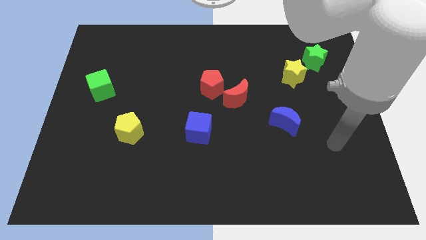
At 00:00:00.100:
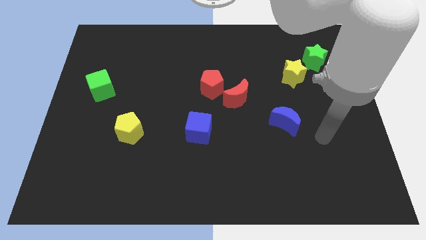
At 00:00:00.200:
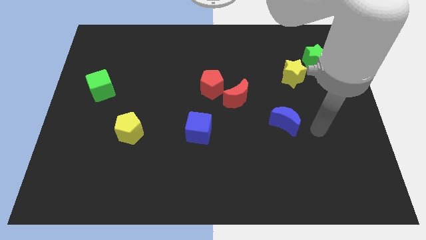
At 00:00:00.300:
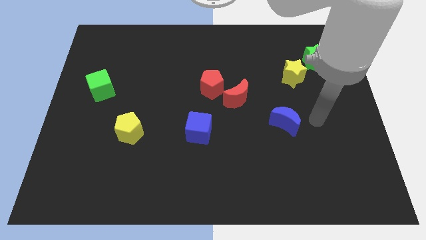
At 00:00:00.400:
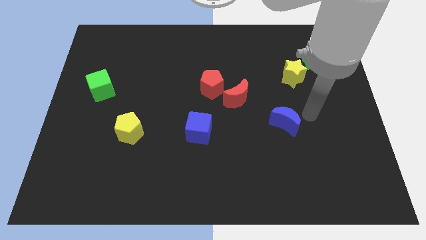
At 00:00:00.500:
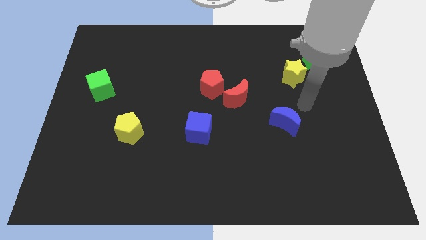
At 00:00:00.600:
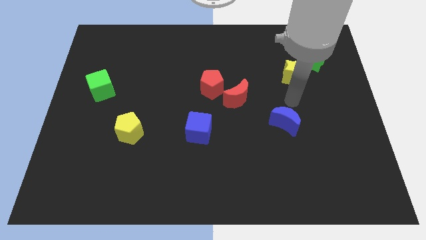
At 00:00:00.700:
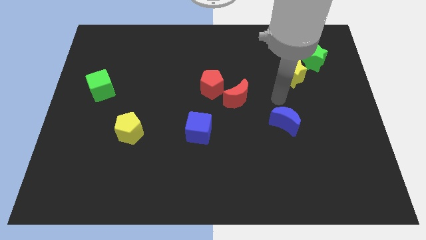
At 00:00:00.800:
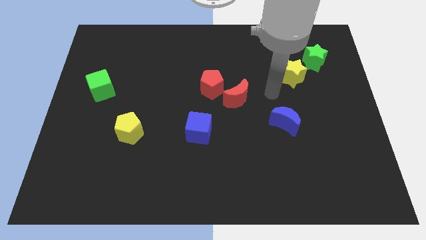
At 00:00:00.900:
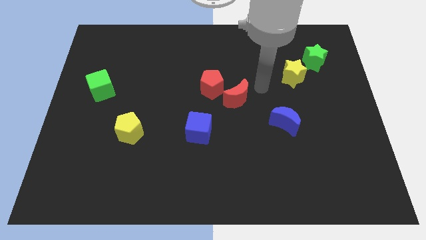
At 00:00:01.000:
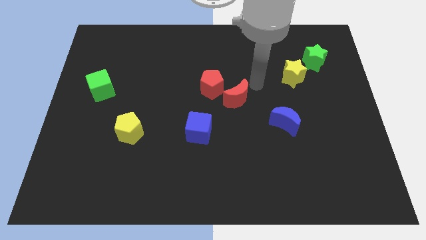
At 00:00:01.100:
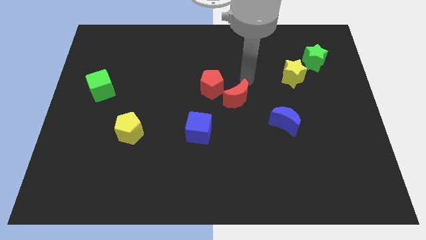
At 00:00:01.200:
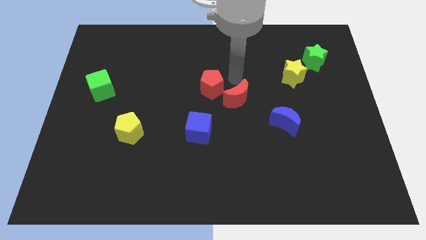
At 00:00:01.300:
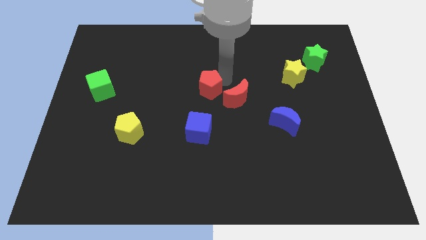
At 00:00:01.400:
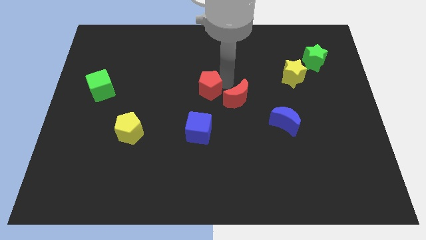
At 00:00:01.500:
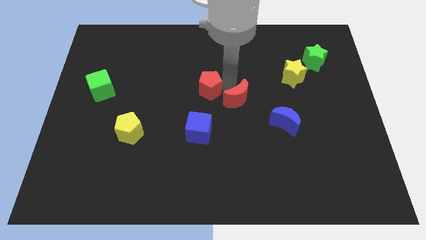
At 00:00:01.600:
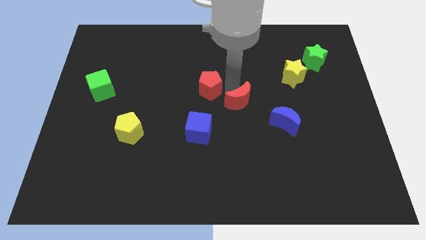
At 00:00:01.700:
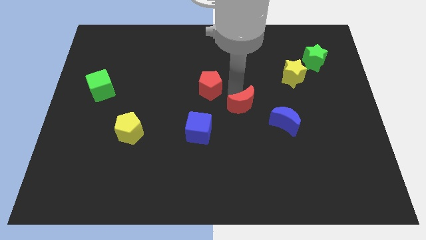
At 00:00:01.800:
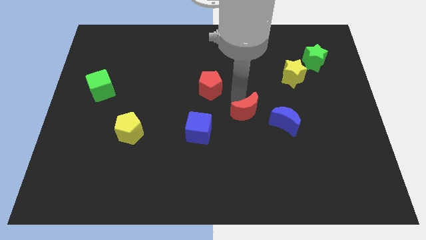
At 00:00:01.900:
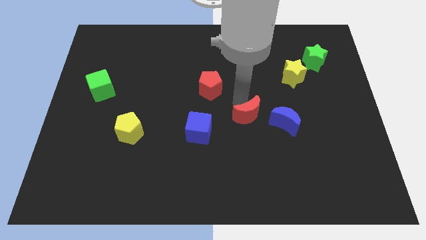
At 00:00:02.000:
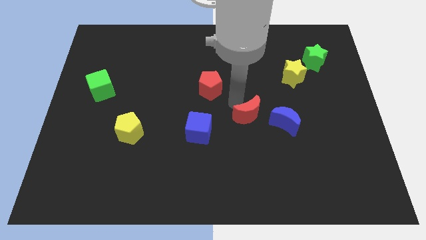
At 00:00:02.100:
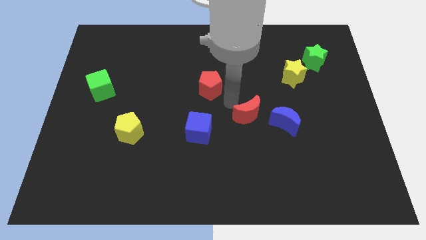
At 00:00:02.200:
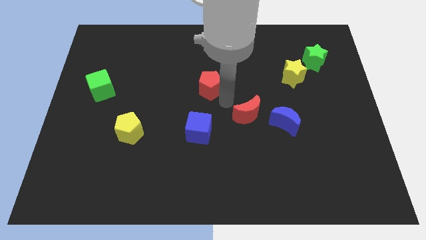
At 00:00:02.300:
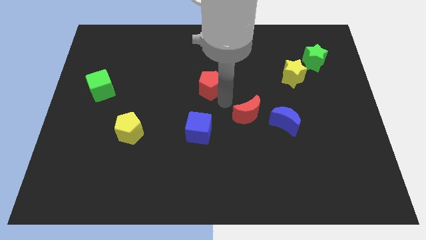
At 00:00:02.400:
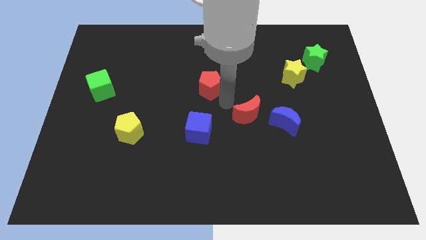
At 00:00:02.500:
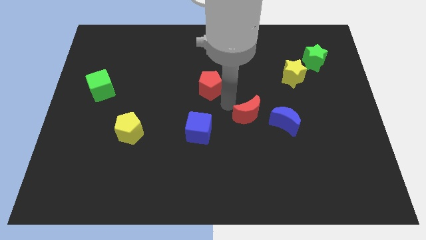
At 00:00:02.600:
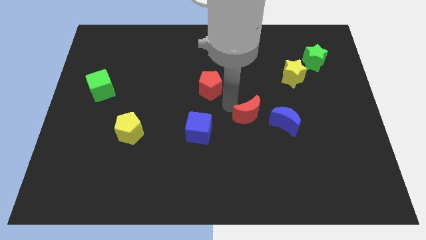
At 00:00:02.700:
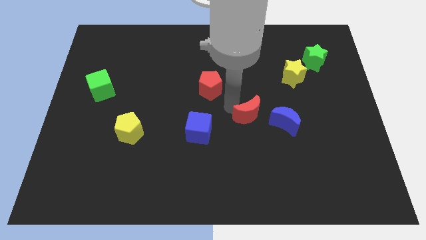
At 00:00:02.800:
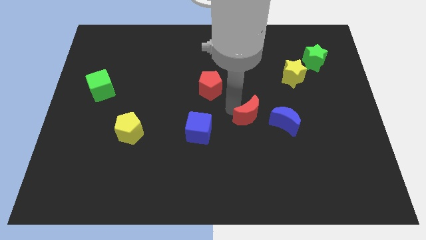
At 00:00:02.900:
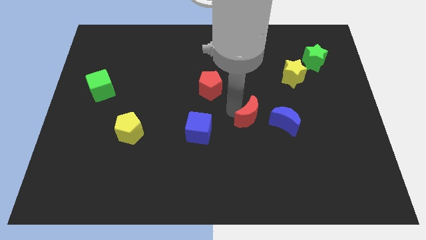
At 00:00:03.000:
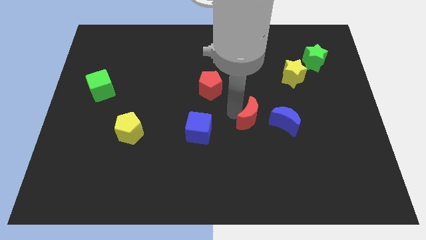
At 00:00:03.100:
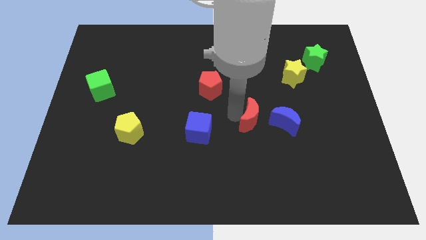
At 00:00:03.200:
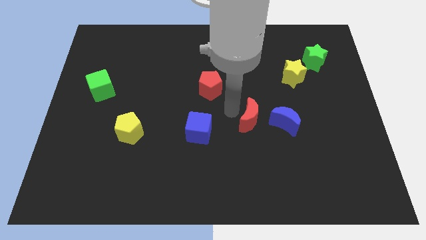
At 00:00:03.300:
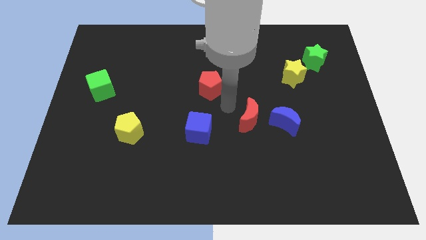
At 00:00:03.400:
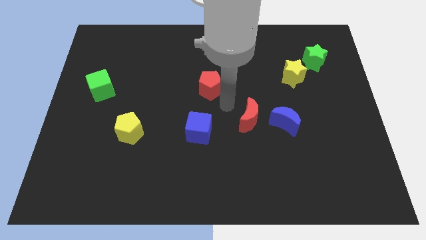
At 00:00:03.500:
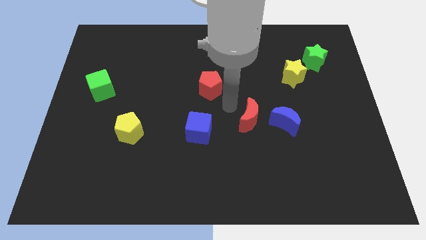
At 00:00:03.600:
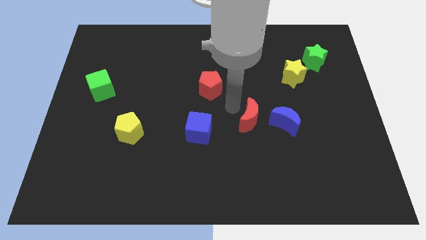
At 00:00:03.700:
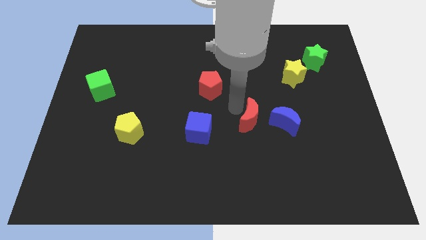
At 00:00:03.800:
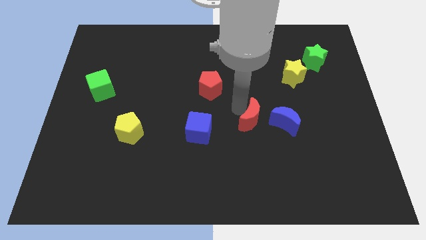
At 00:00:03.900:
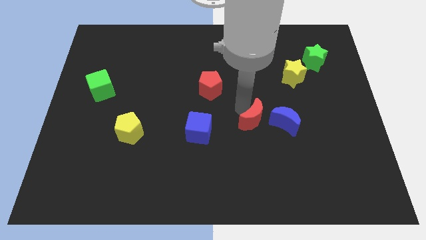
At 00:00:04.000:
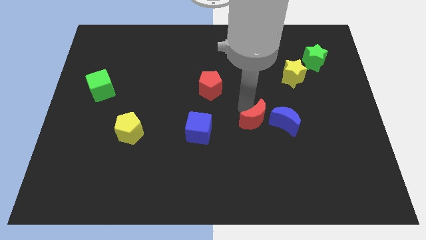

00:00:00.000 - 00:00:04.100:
slide the red moon a little downwards and to the right

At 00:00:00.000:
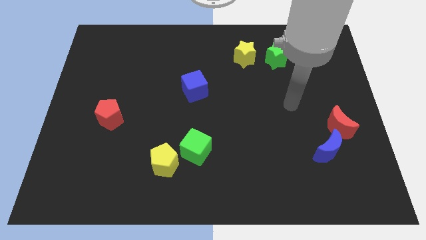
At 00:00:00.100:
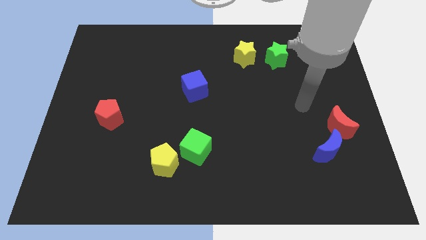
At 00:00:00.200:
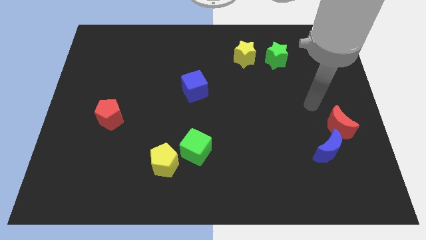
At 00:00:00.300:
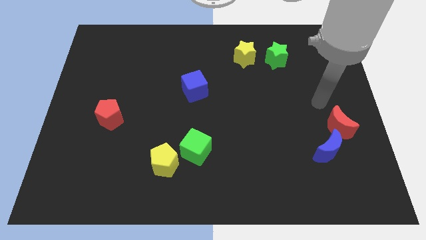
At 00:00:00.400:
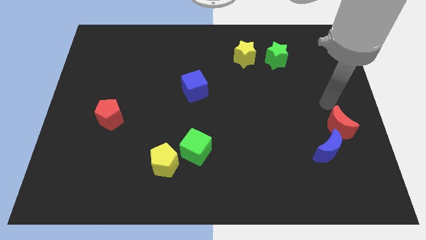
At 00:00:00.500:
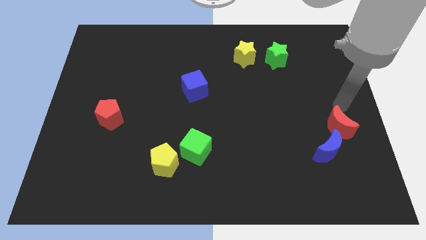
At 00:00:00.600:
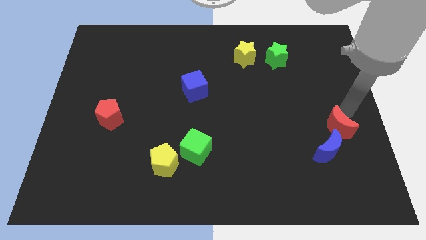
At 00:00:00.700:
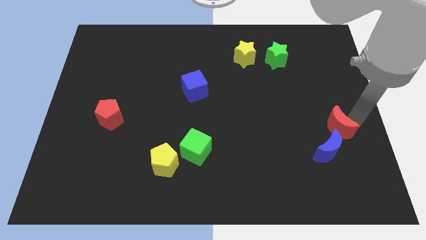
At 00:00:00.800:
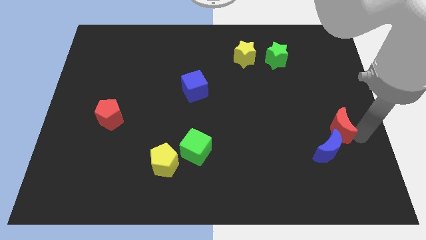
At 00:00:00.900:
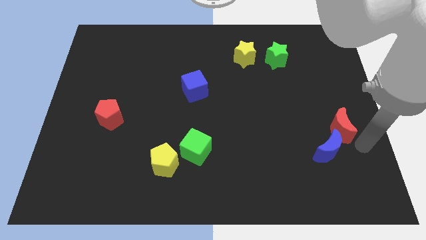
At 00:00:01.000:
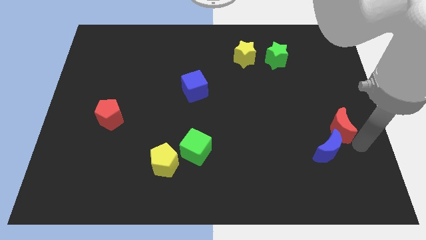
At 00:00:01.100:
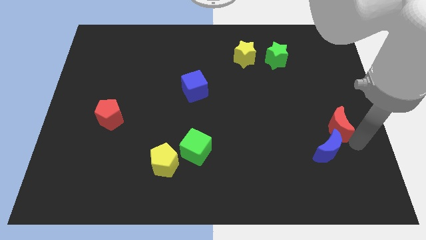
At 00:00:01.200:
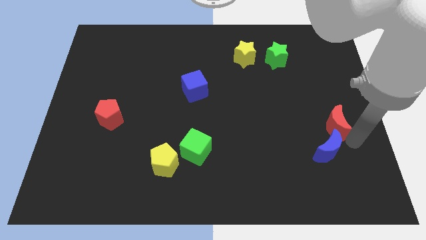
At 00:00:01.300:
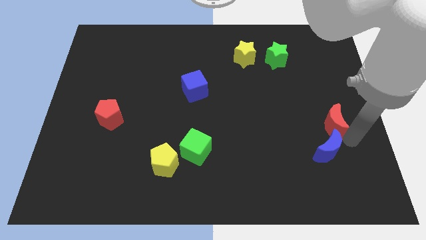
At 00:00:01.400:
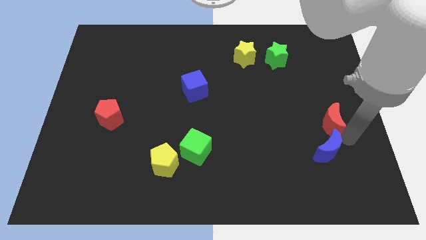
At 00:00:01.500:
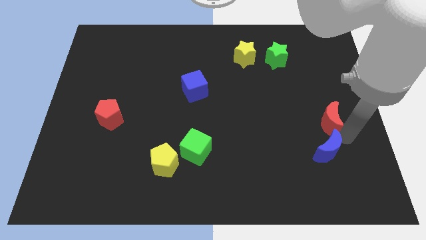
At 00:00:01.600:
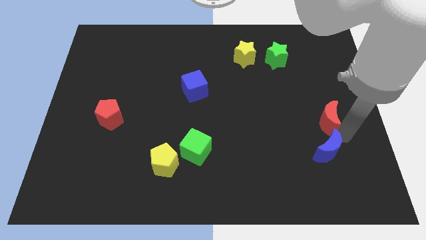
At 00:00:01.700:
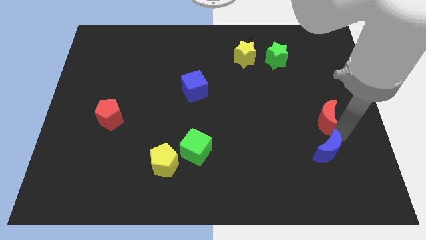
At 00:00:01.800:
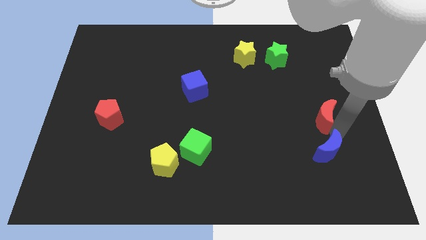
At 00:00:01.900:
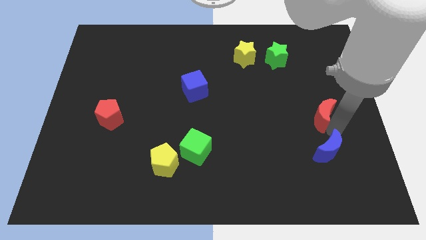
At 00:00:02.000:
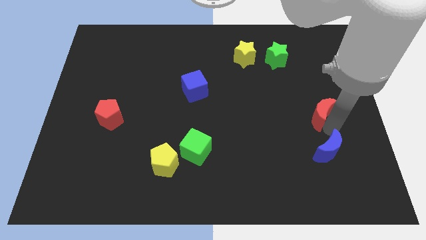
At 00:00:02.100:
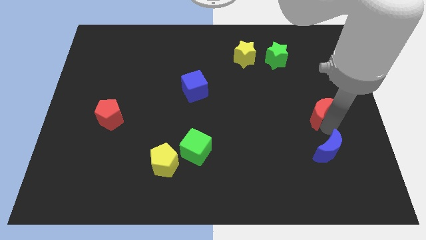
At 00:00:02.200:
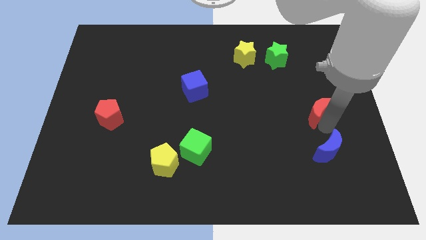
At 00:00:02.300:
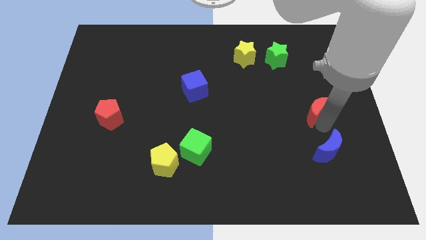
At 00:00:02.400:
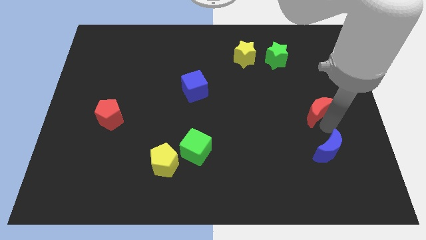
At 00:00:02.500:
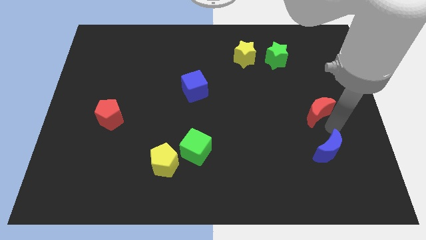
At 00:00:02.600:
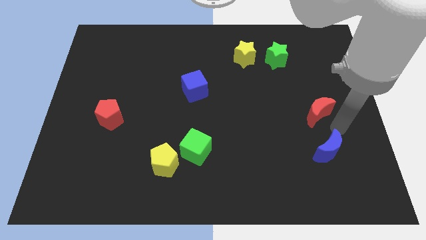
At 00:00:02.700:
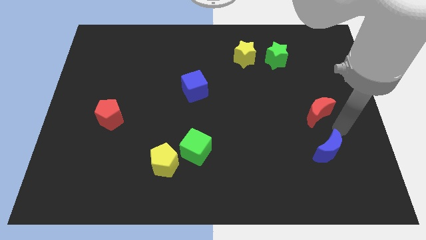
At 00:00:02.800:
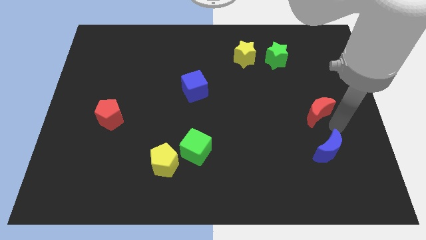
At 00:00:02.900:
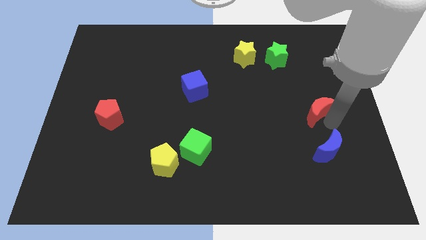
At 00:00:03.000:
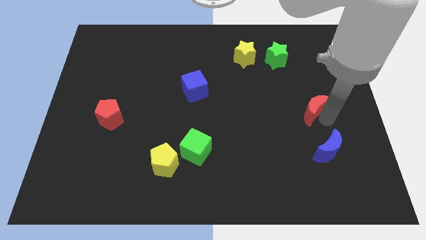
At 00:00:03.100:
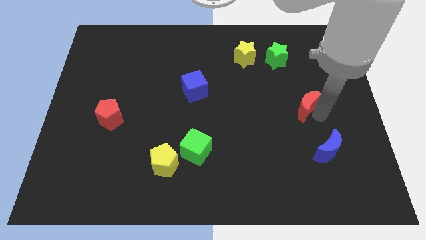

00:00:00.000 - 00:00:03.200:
slightly push the red moon diagonally upwards and left
